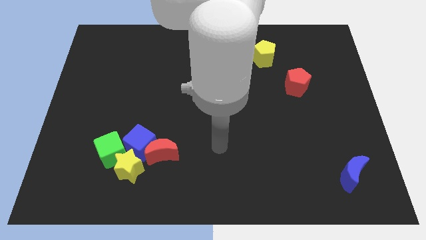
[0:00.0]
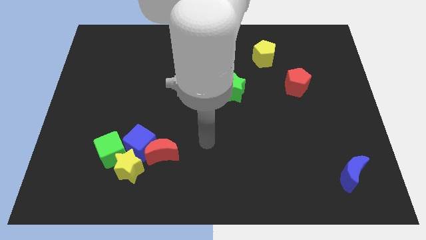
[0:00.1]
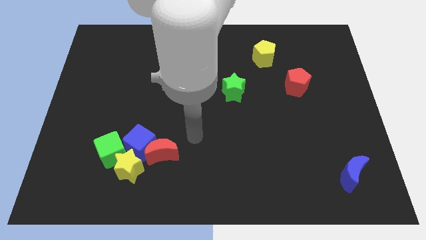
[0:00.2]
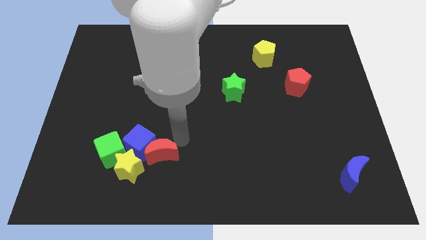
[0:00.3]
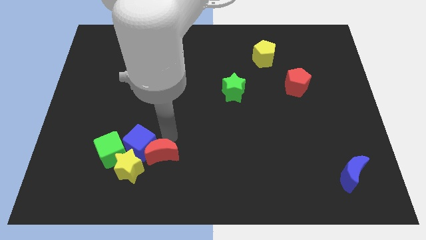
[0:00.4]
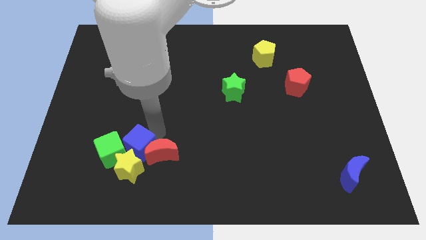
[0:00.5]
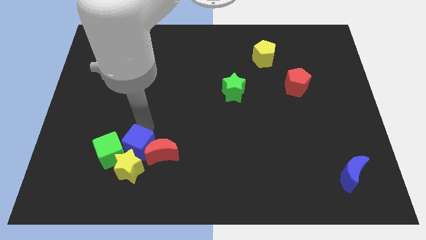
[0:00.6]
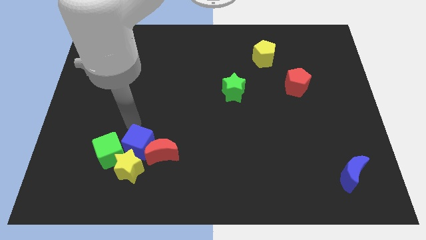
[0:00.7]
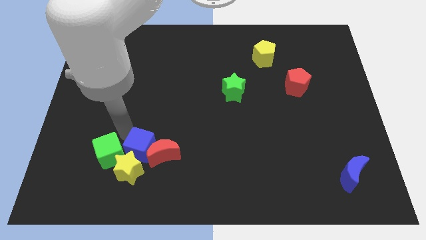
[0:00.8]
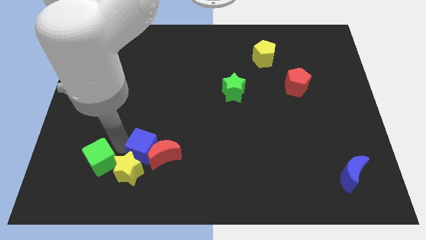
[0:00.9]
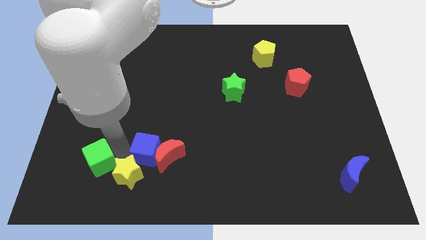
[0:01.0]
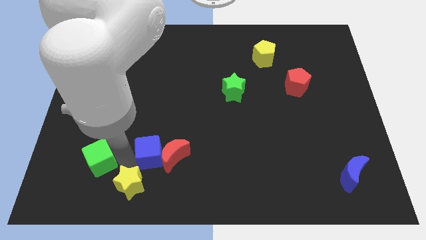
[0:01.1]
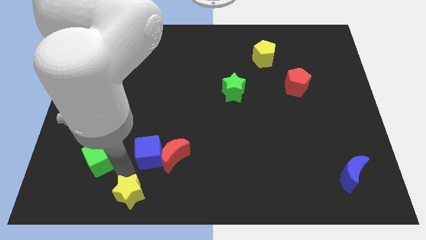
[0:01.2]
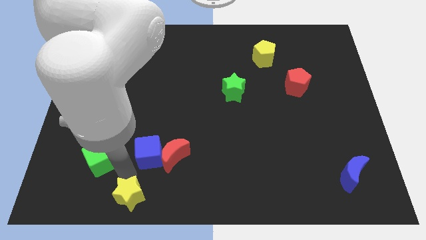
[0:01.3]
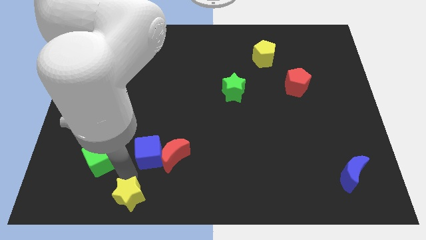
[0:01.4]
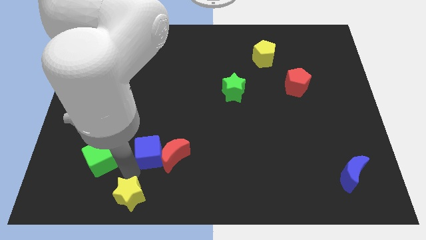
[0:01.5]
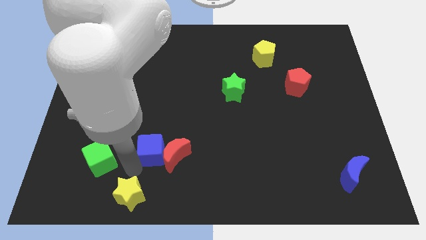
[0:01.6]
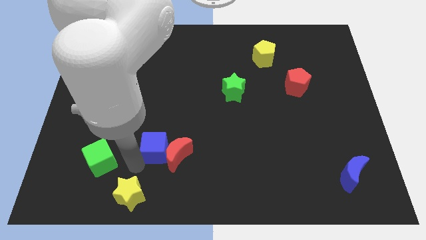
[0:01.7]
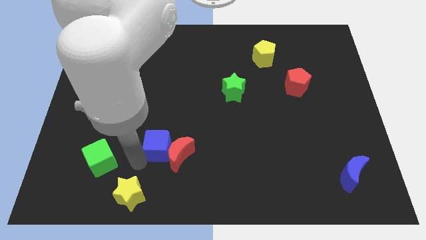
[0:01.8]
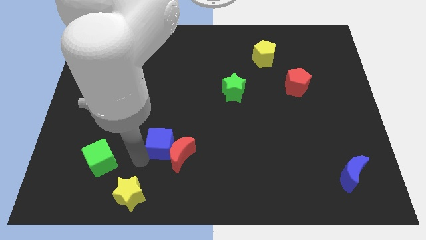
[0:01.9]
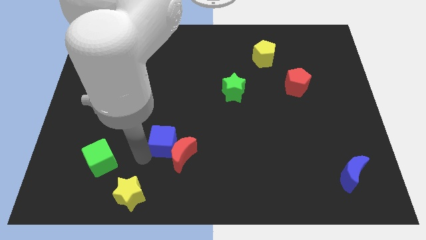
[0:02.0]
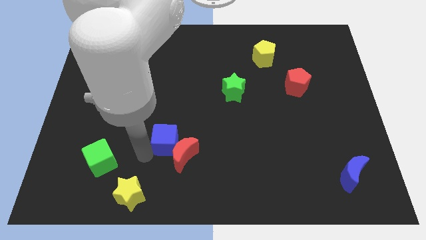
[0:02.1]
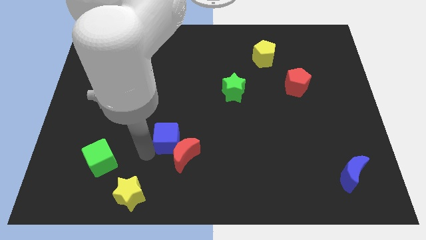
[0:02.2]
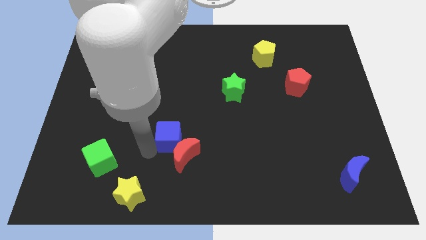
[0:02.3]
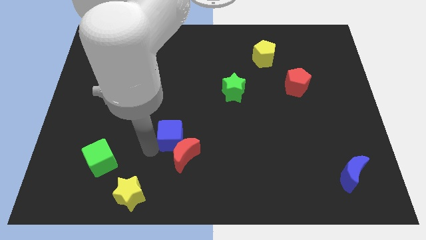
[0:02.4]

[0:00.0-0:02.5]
move the blue cube away from the red moon, yellow star, and green cube

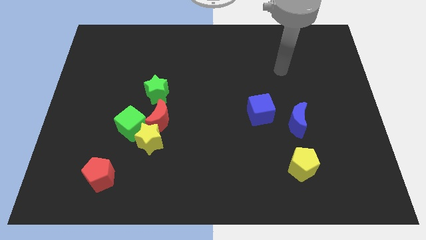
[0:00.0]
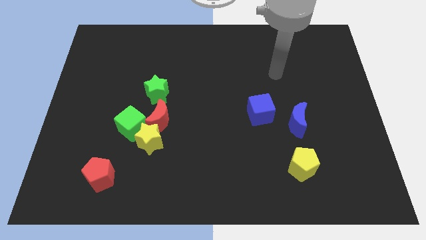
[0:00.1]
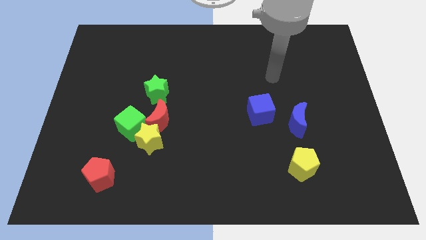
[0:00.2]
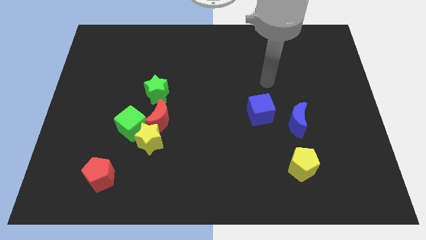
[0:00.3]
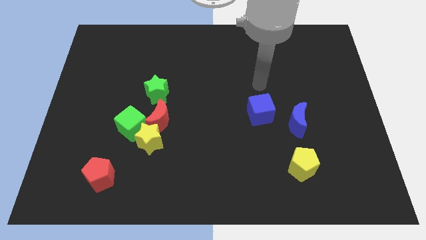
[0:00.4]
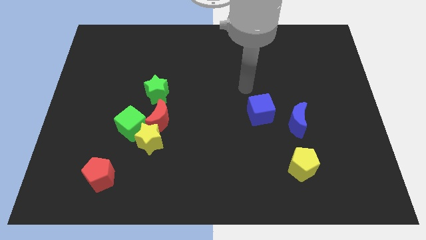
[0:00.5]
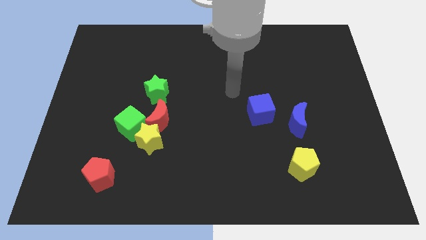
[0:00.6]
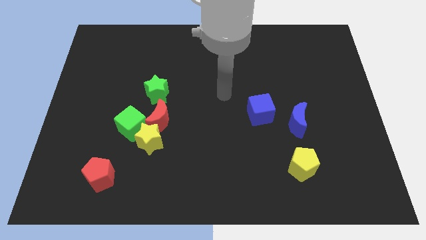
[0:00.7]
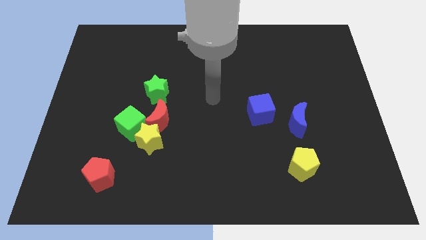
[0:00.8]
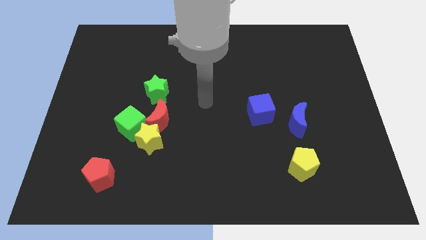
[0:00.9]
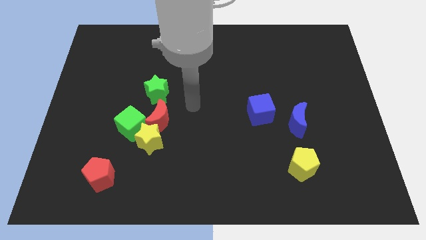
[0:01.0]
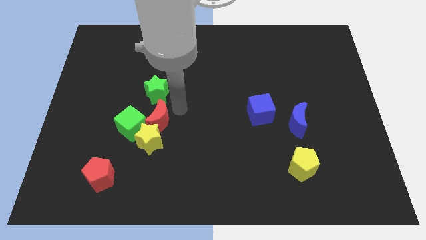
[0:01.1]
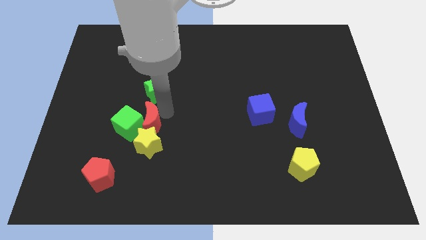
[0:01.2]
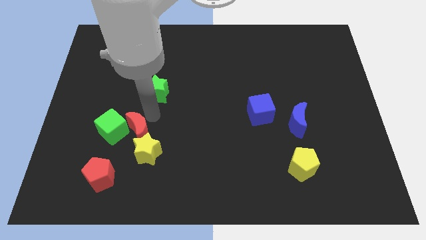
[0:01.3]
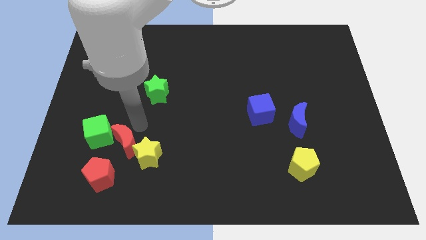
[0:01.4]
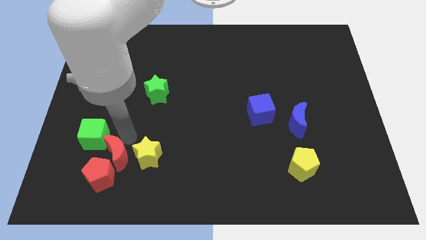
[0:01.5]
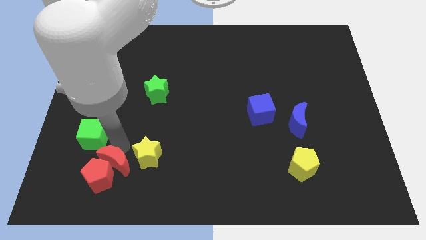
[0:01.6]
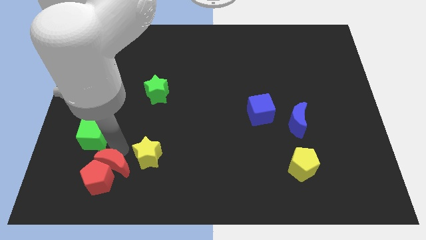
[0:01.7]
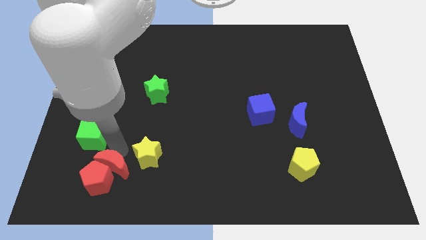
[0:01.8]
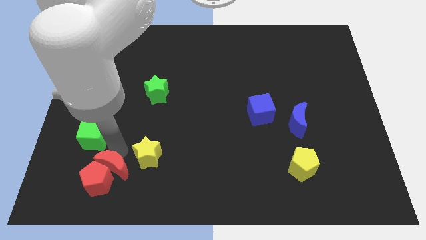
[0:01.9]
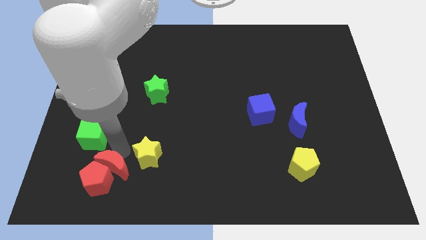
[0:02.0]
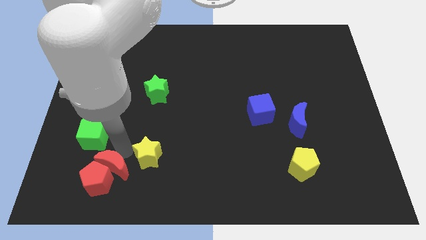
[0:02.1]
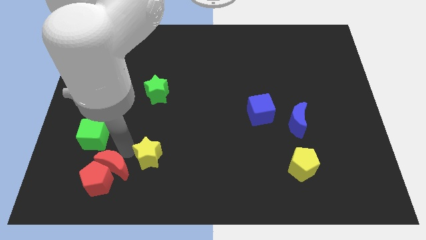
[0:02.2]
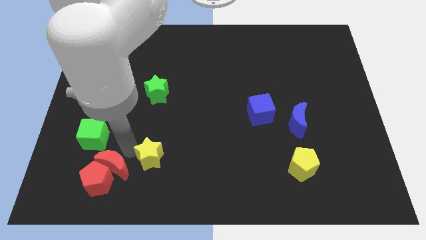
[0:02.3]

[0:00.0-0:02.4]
pull the yellow star apart from the red moon and green cube

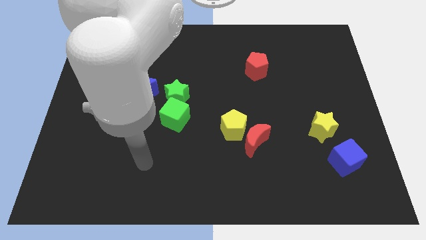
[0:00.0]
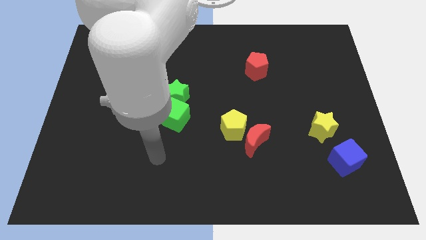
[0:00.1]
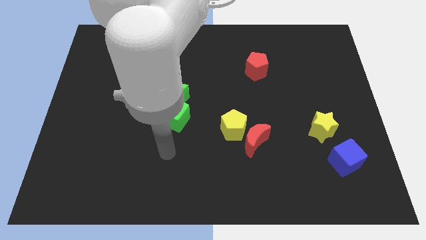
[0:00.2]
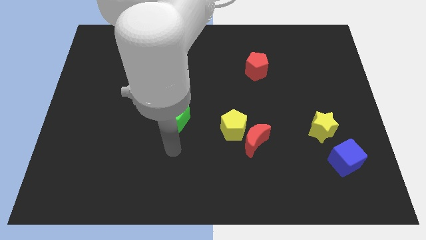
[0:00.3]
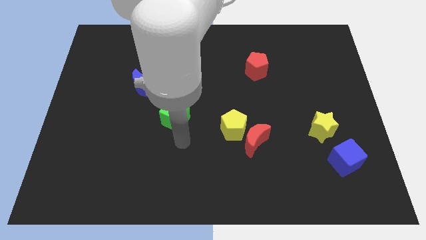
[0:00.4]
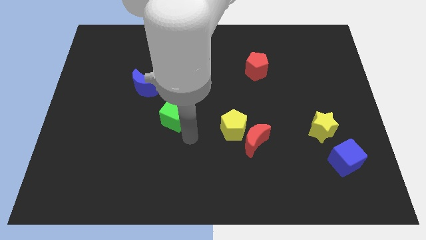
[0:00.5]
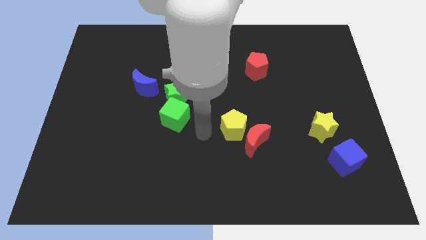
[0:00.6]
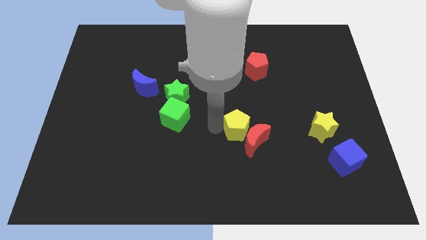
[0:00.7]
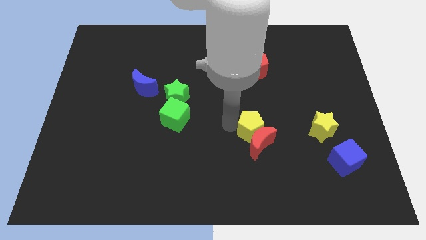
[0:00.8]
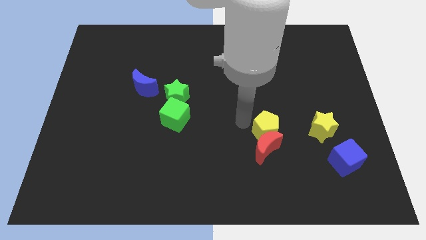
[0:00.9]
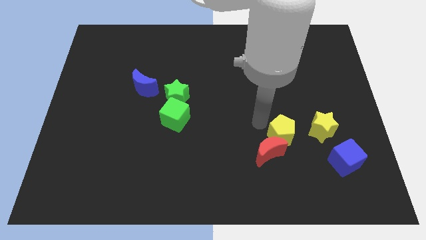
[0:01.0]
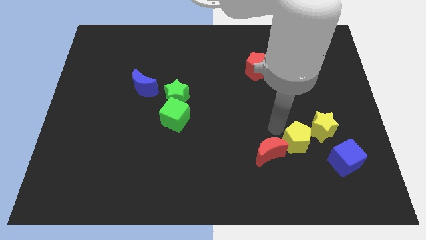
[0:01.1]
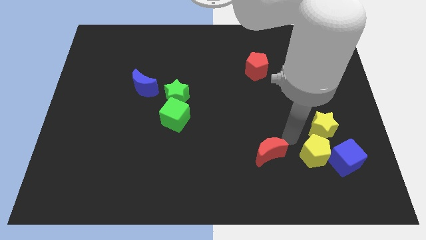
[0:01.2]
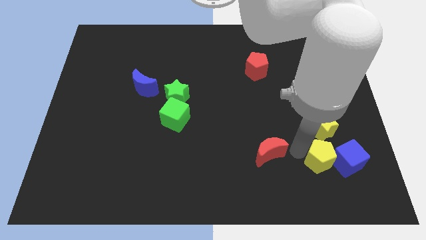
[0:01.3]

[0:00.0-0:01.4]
move the red moon away from the yellow pentagon

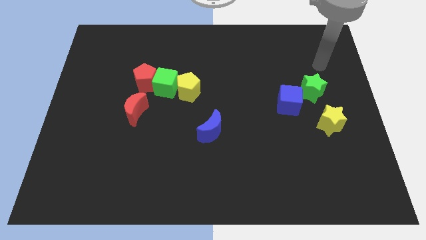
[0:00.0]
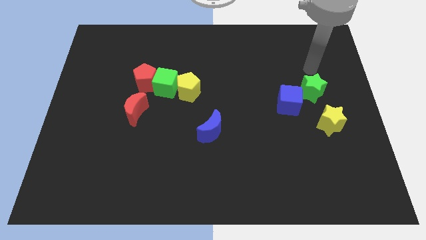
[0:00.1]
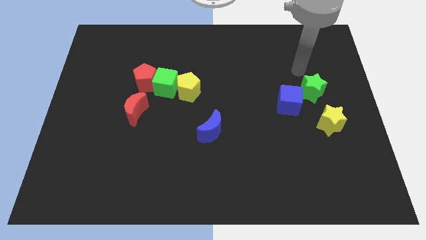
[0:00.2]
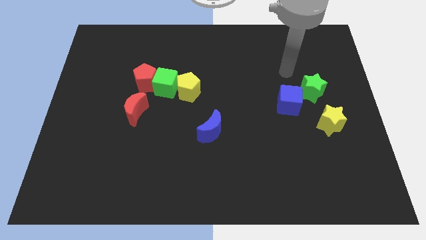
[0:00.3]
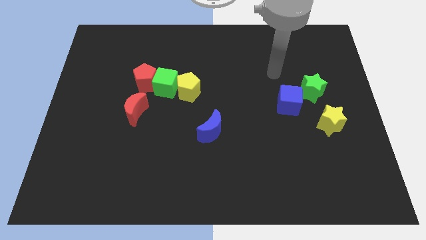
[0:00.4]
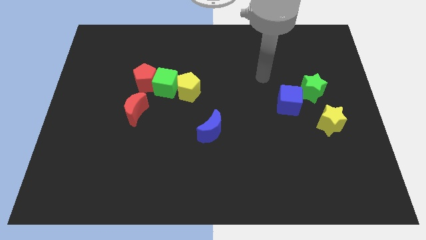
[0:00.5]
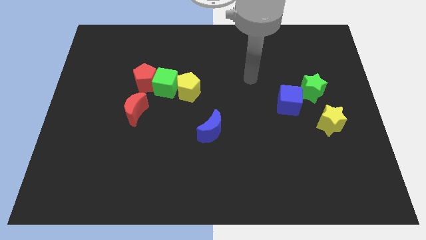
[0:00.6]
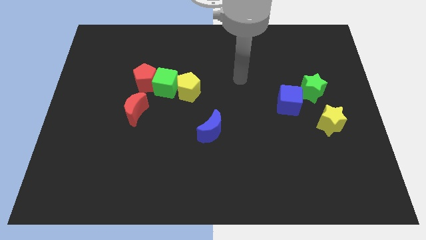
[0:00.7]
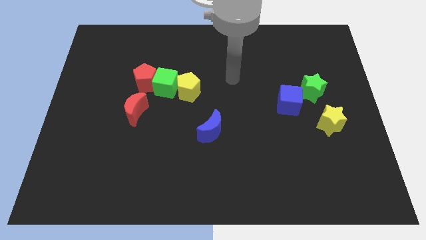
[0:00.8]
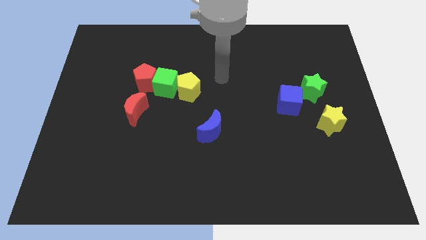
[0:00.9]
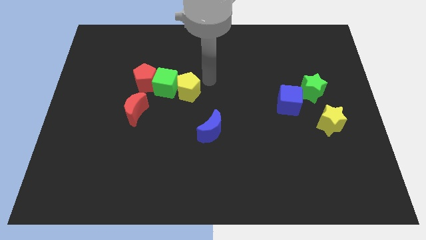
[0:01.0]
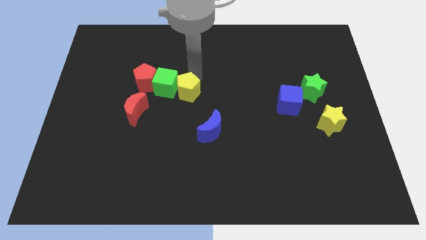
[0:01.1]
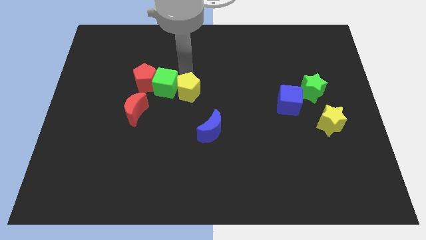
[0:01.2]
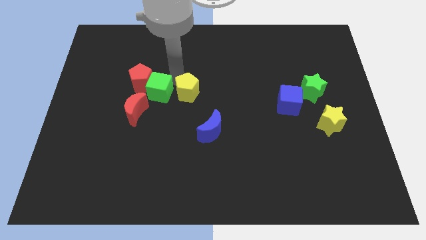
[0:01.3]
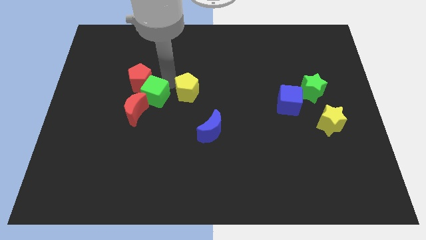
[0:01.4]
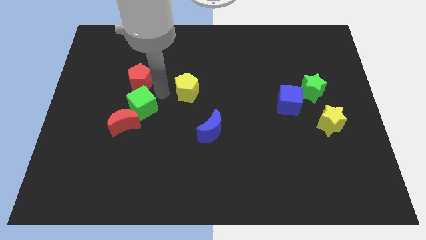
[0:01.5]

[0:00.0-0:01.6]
pull the yellow pentagon apart from the green cube

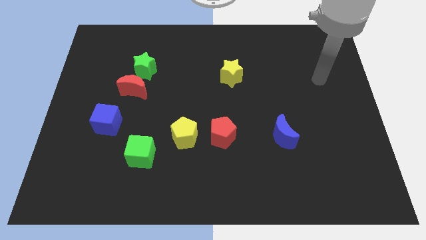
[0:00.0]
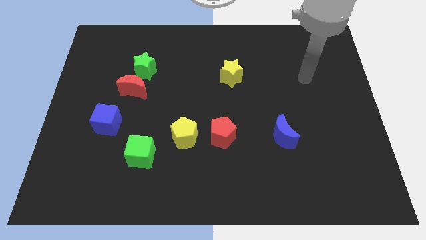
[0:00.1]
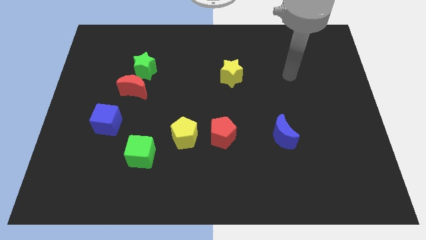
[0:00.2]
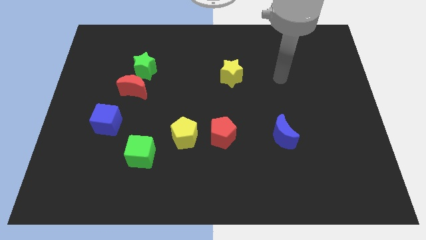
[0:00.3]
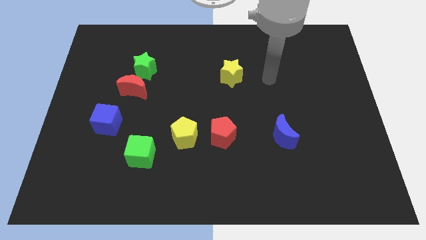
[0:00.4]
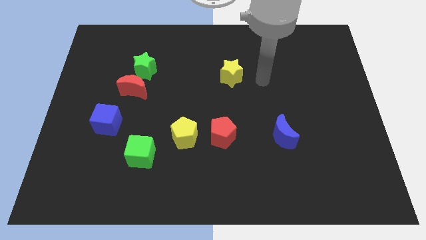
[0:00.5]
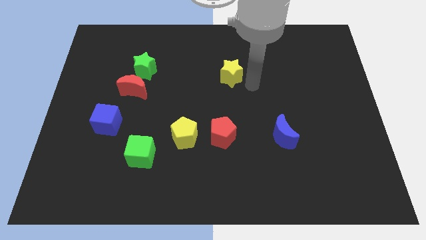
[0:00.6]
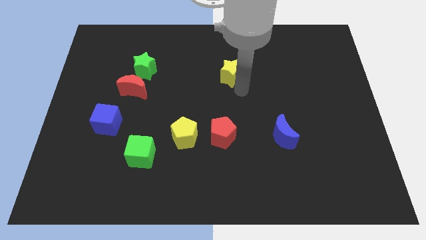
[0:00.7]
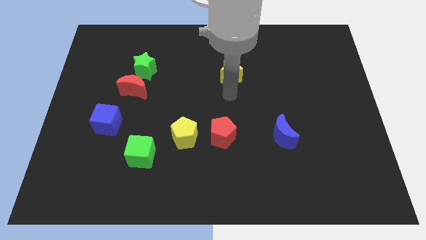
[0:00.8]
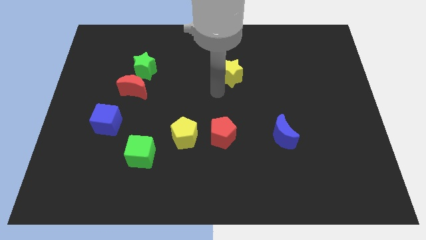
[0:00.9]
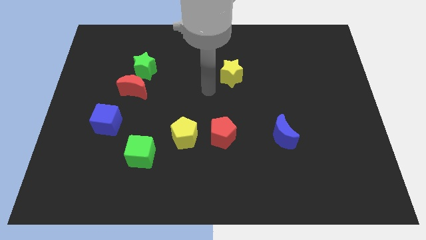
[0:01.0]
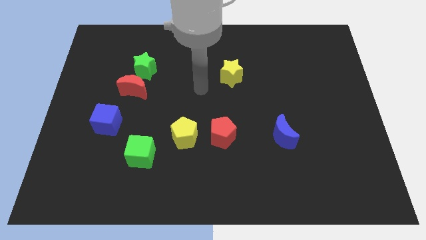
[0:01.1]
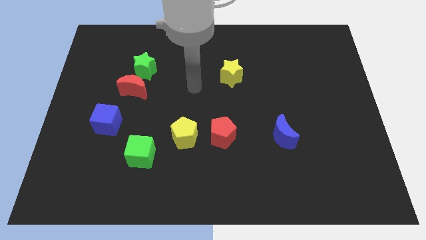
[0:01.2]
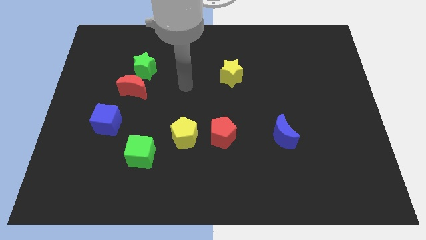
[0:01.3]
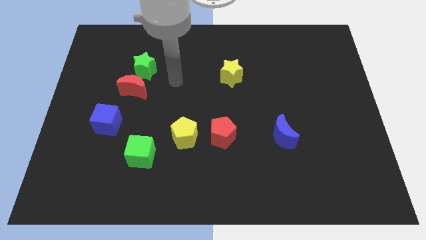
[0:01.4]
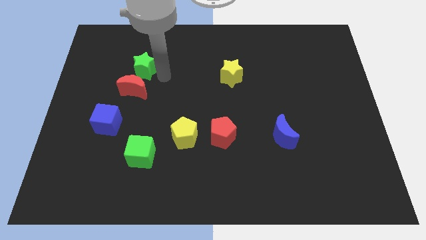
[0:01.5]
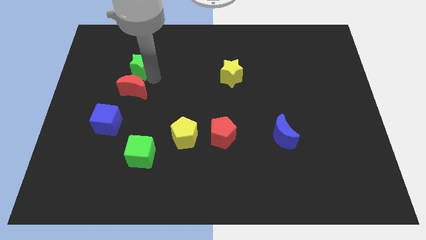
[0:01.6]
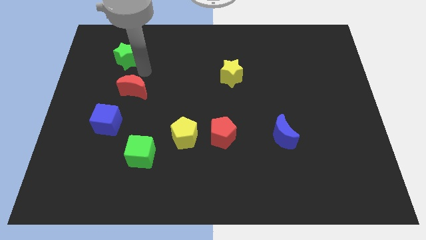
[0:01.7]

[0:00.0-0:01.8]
separate the red moon from the green star
